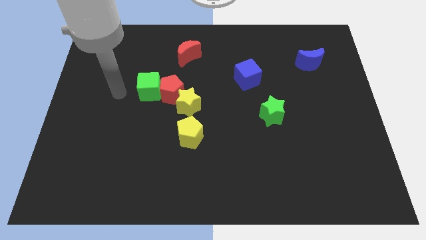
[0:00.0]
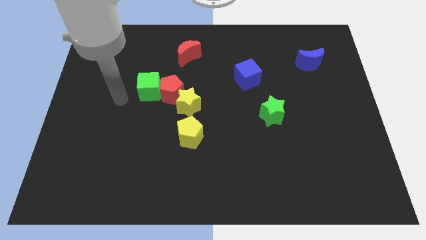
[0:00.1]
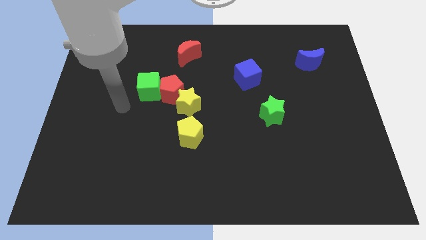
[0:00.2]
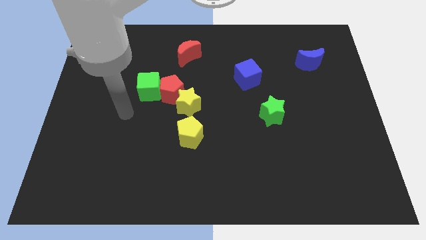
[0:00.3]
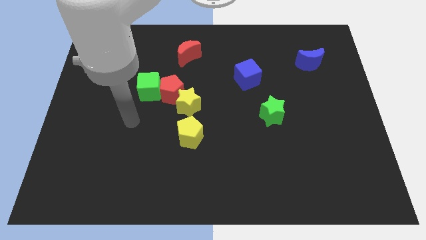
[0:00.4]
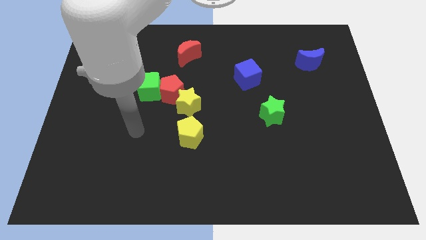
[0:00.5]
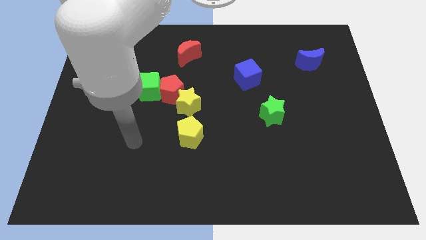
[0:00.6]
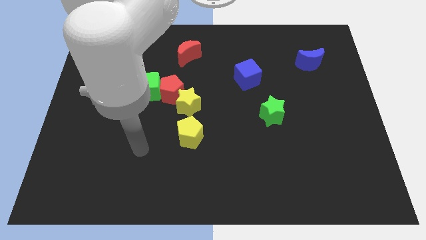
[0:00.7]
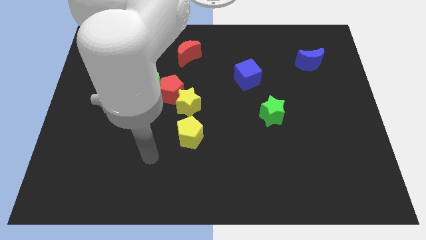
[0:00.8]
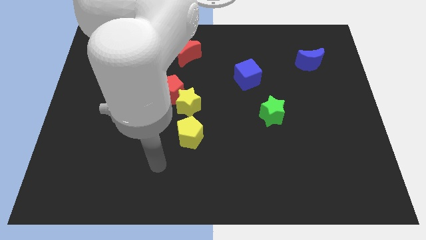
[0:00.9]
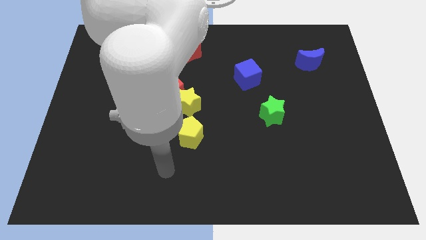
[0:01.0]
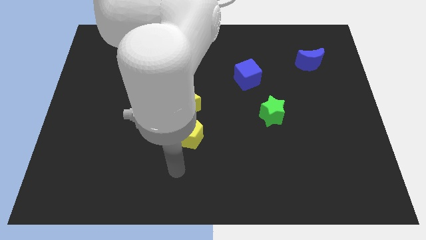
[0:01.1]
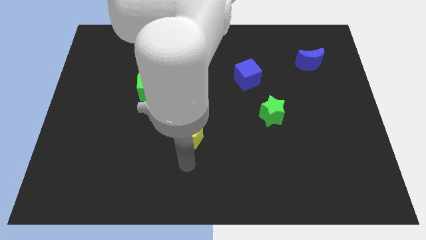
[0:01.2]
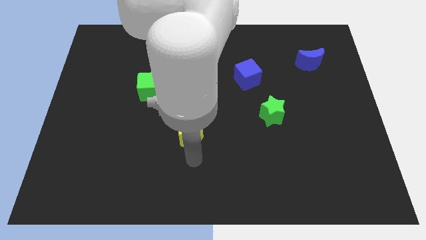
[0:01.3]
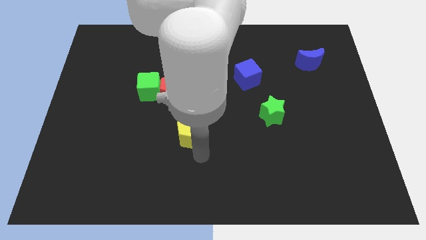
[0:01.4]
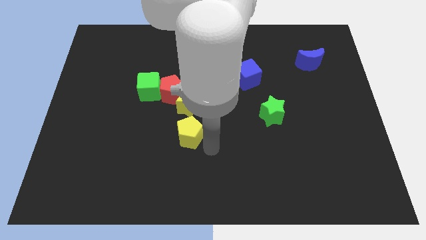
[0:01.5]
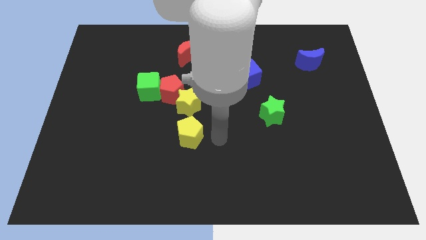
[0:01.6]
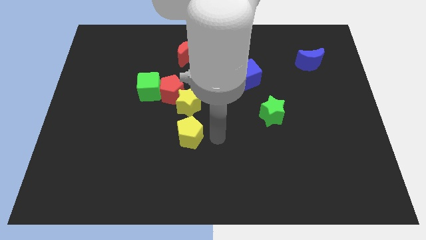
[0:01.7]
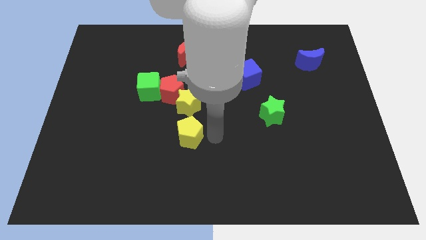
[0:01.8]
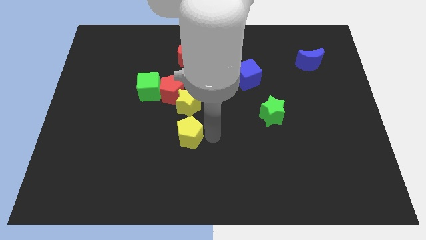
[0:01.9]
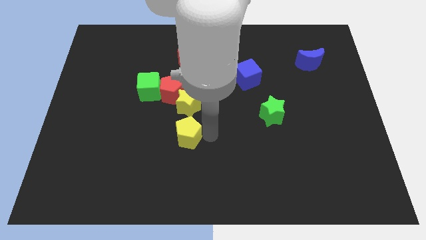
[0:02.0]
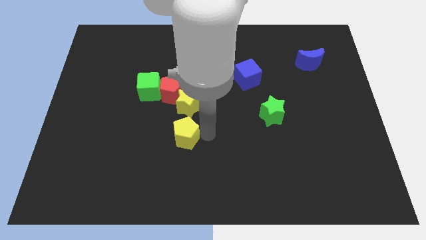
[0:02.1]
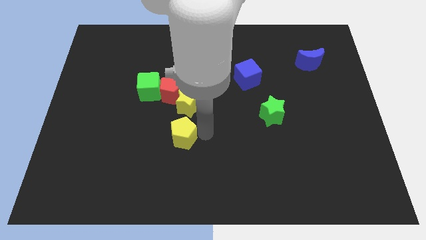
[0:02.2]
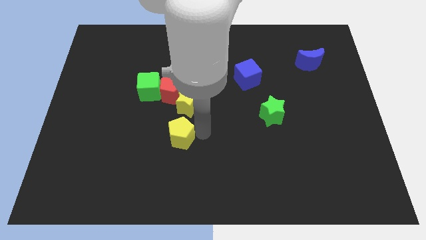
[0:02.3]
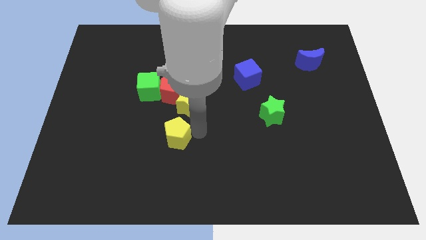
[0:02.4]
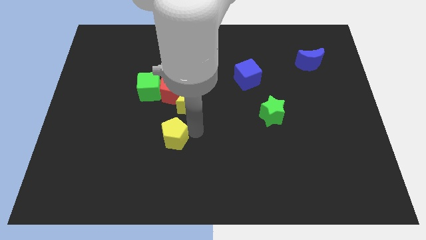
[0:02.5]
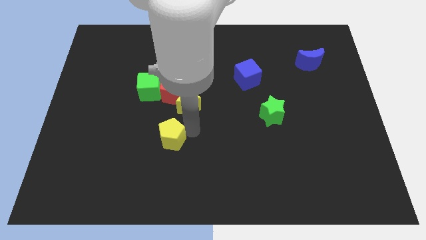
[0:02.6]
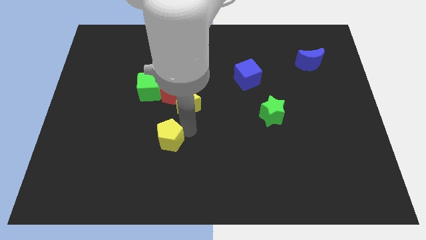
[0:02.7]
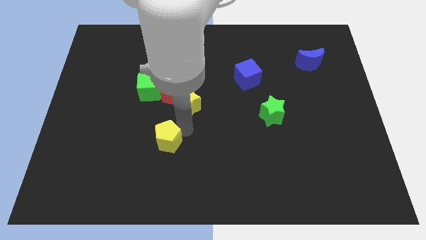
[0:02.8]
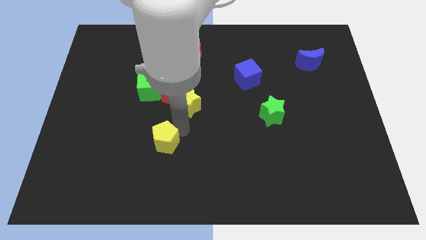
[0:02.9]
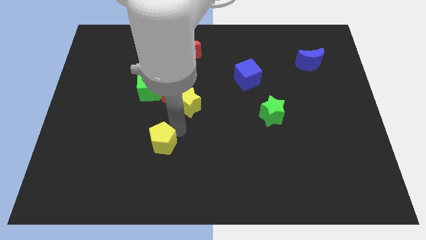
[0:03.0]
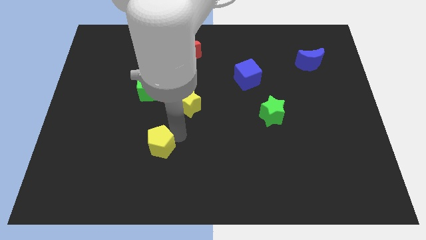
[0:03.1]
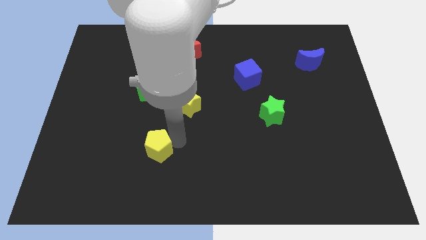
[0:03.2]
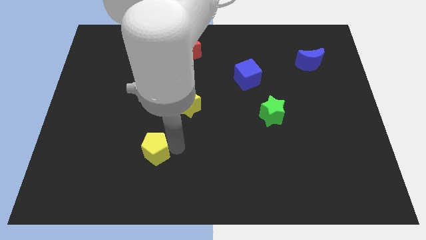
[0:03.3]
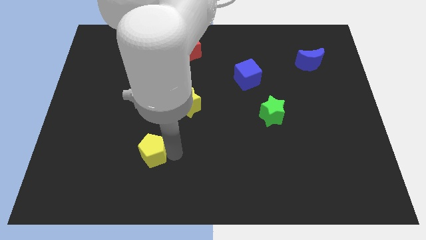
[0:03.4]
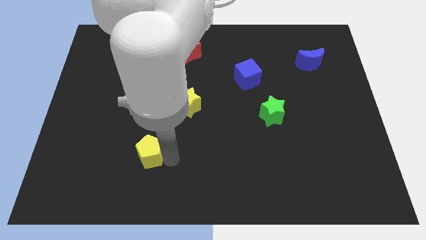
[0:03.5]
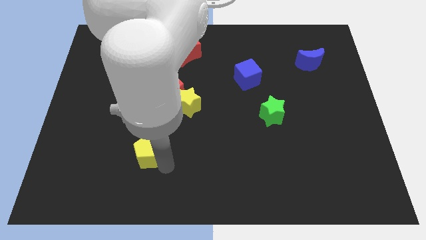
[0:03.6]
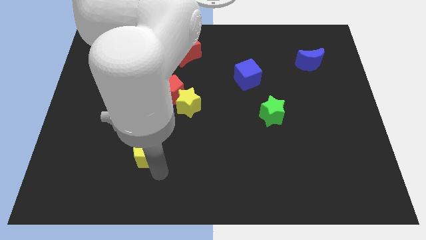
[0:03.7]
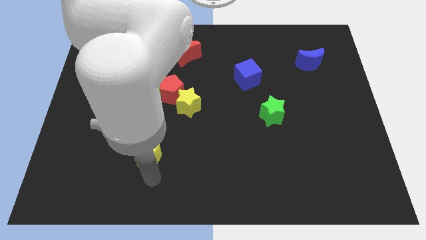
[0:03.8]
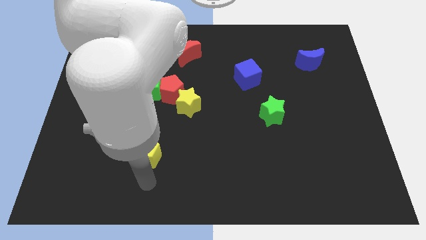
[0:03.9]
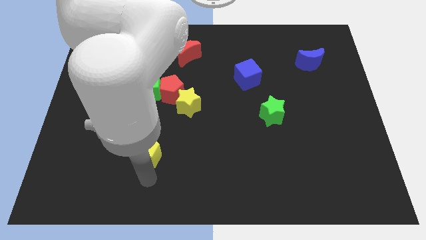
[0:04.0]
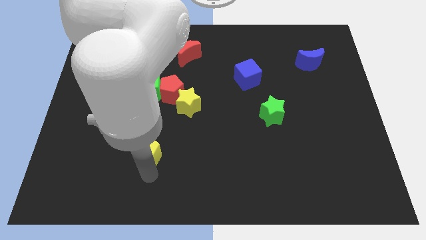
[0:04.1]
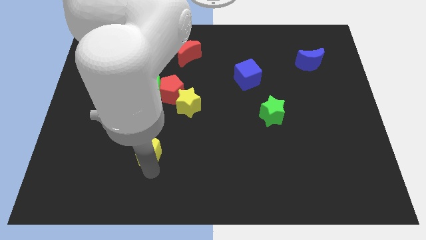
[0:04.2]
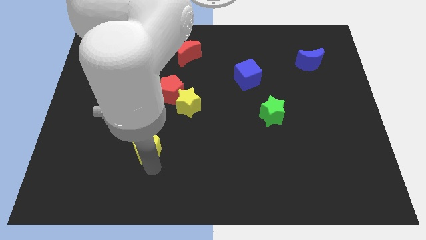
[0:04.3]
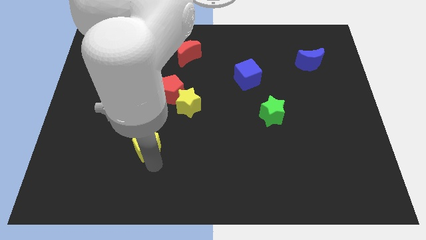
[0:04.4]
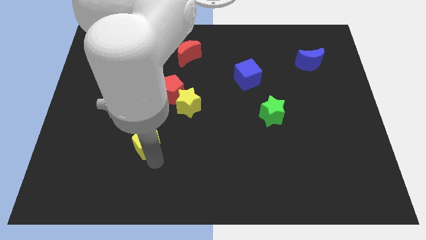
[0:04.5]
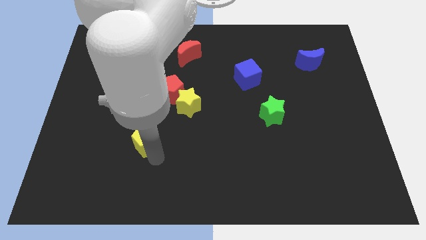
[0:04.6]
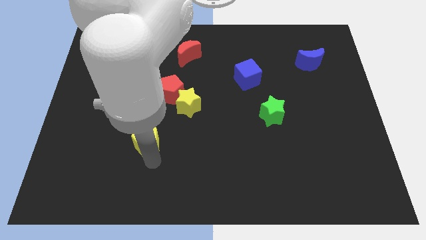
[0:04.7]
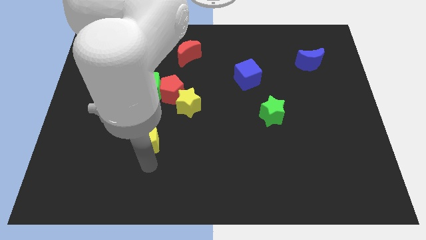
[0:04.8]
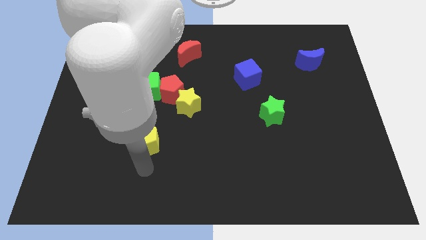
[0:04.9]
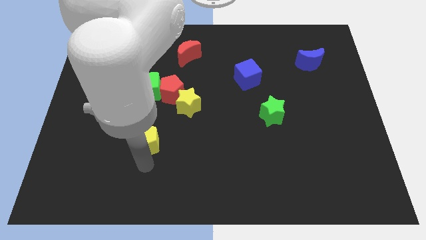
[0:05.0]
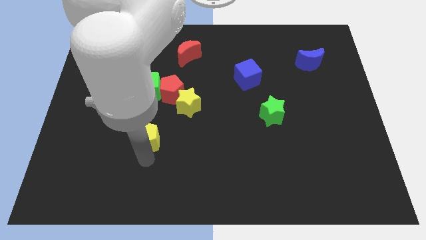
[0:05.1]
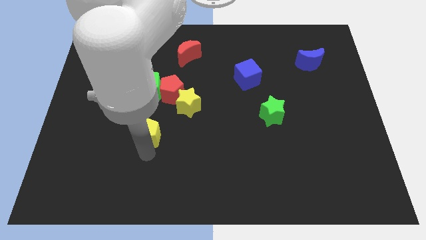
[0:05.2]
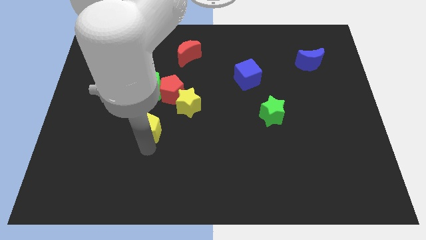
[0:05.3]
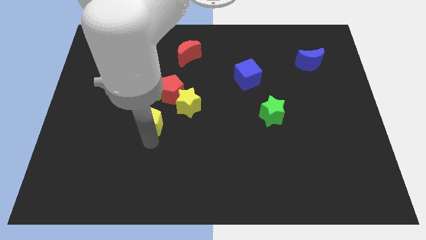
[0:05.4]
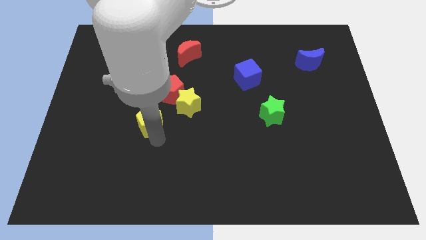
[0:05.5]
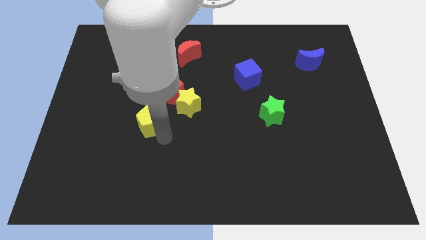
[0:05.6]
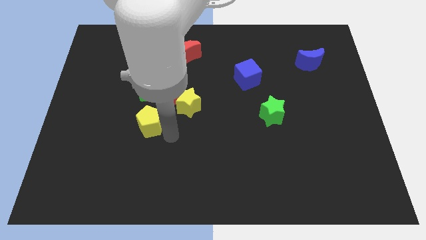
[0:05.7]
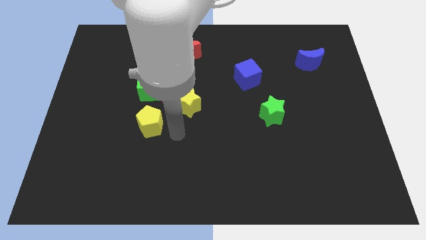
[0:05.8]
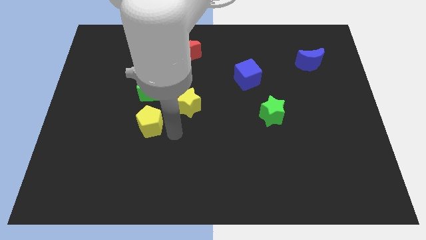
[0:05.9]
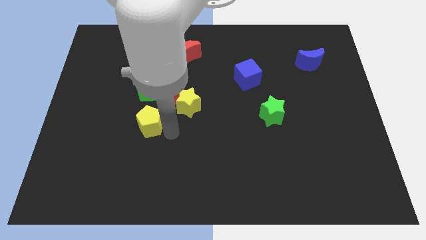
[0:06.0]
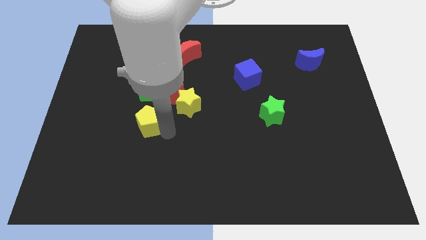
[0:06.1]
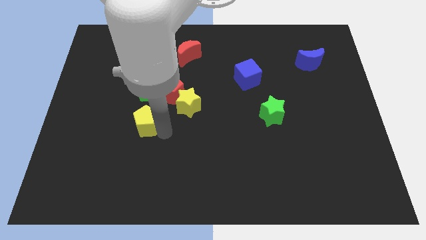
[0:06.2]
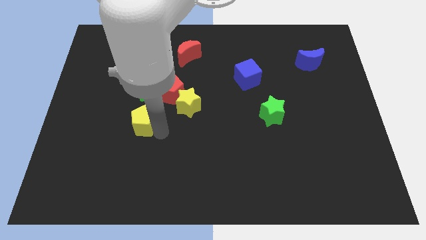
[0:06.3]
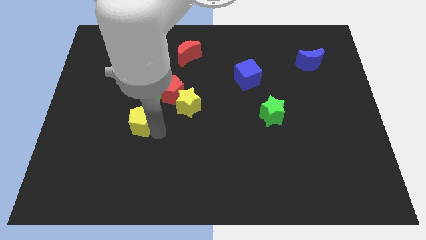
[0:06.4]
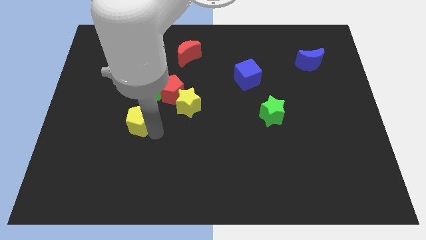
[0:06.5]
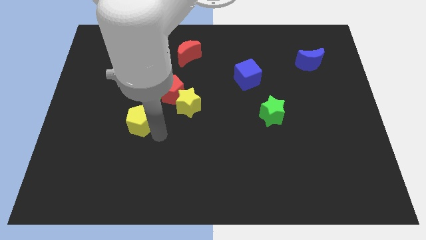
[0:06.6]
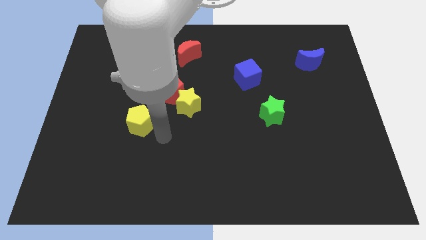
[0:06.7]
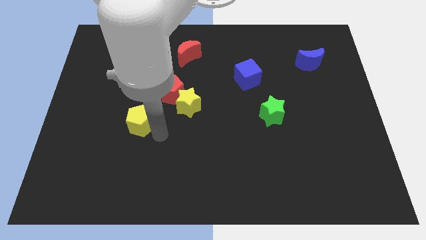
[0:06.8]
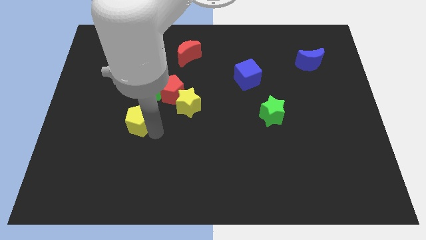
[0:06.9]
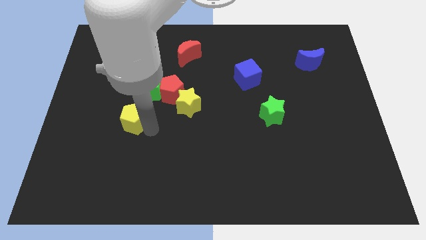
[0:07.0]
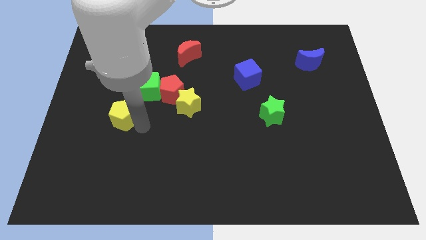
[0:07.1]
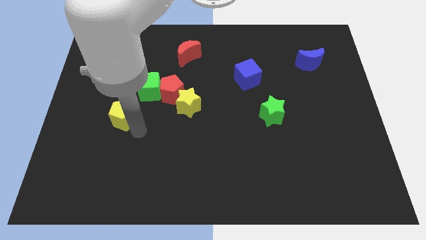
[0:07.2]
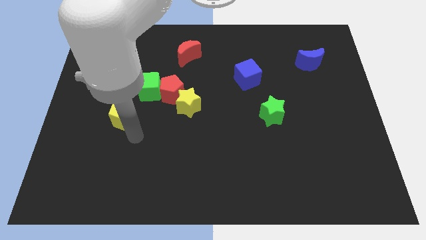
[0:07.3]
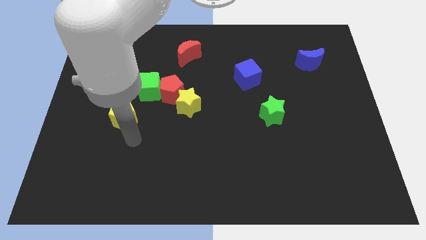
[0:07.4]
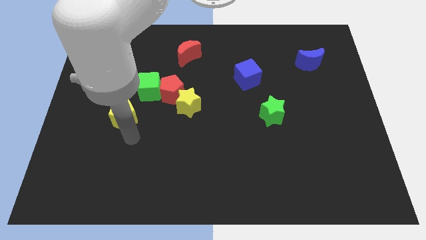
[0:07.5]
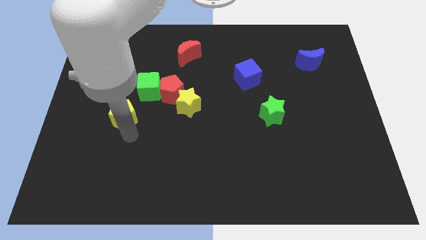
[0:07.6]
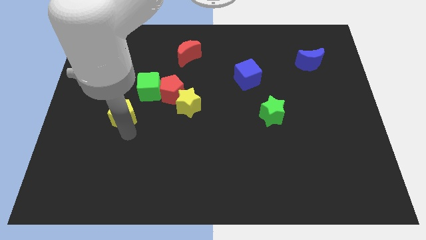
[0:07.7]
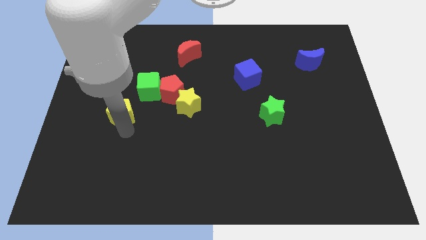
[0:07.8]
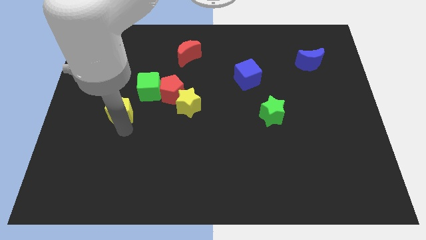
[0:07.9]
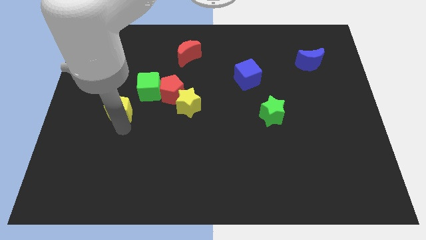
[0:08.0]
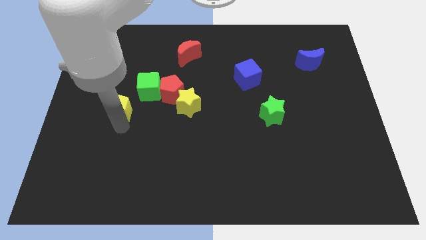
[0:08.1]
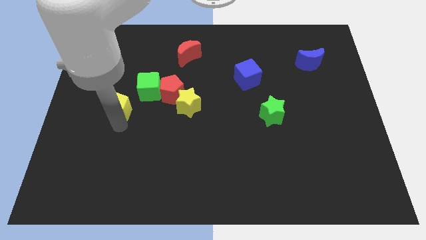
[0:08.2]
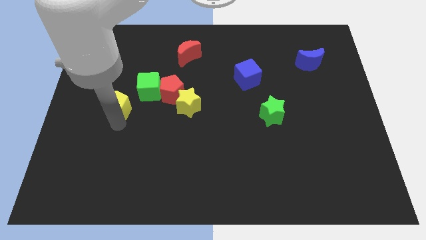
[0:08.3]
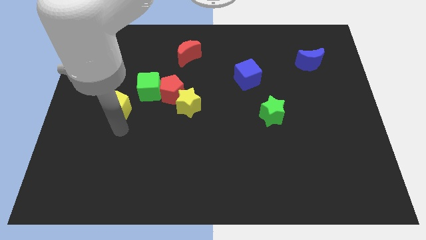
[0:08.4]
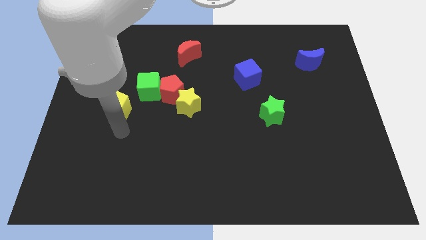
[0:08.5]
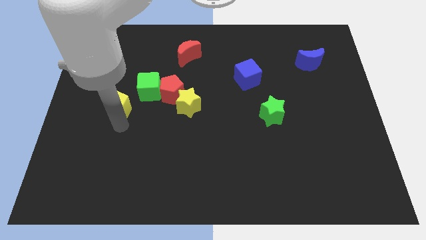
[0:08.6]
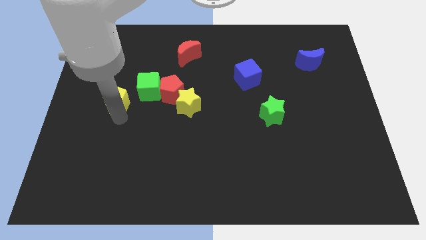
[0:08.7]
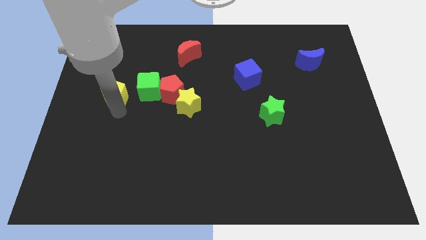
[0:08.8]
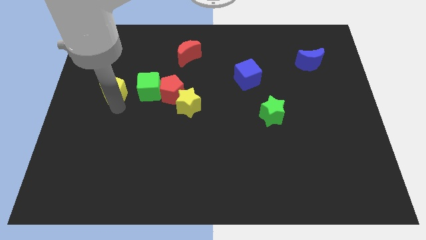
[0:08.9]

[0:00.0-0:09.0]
push the yellow pentagon up and then to the left
